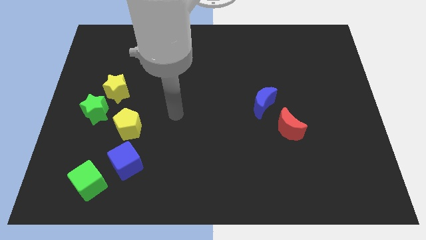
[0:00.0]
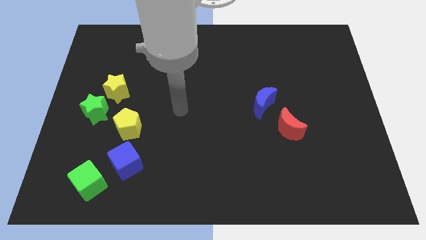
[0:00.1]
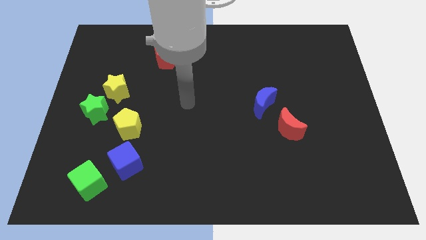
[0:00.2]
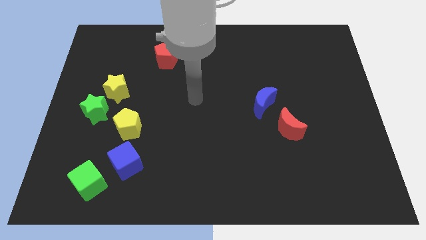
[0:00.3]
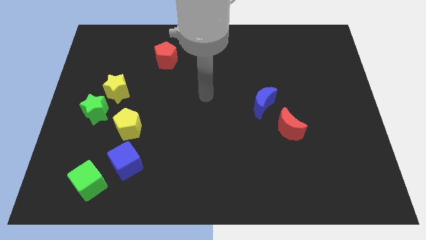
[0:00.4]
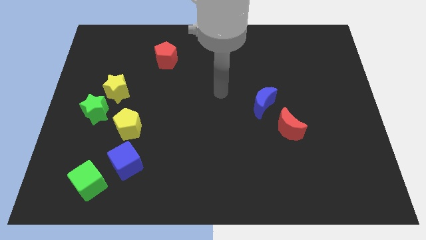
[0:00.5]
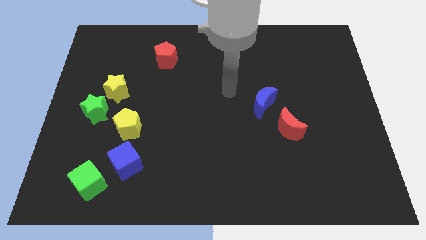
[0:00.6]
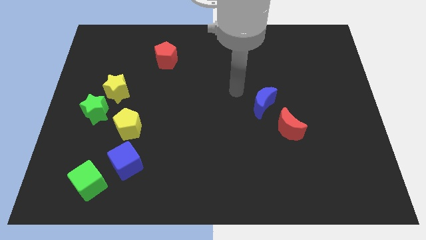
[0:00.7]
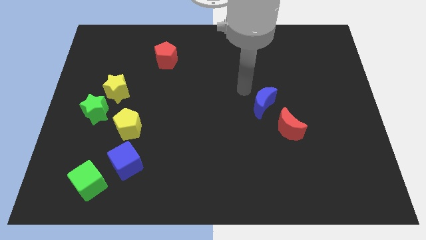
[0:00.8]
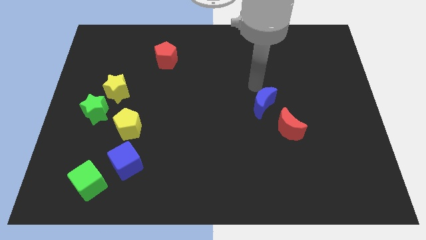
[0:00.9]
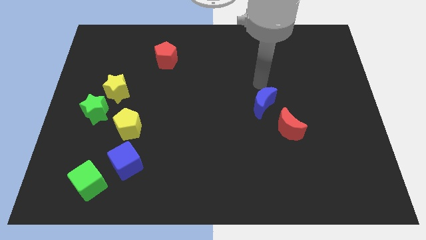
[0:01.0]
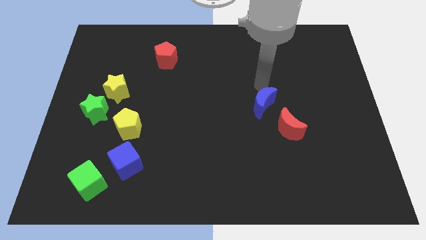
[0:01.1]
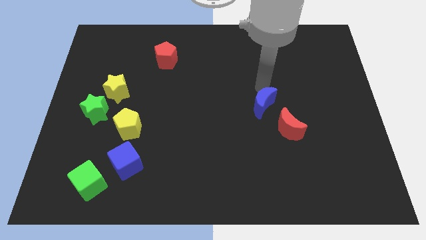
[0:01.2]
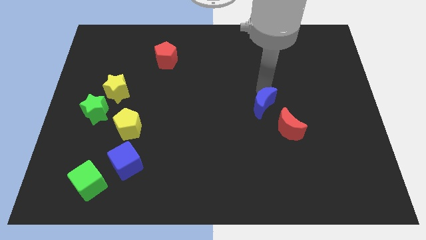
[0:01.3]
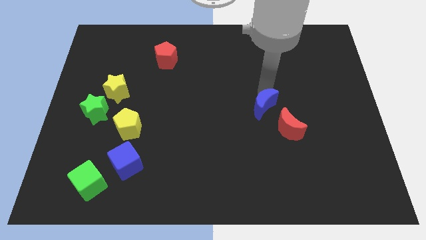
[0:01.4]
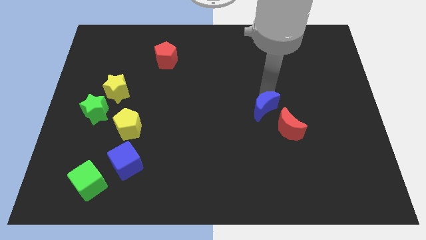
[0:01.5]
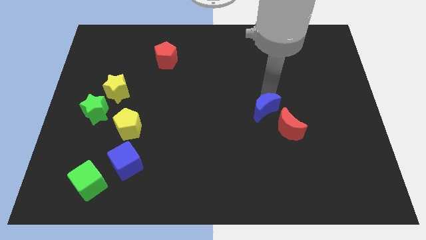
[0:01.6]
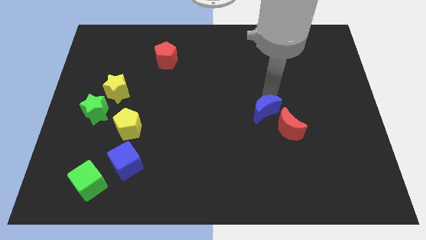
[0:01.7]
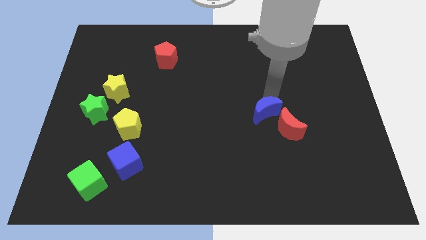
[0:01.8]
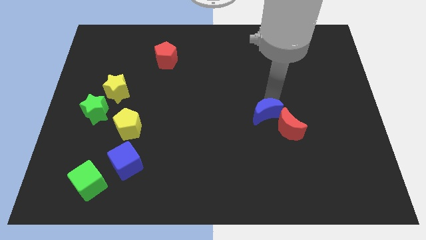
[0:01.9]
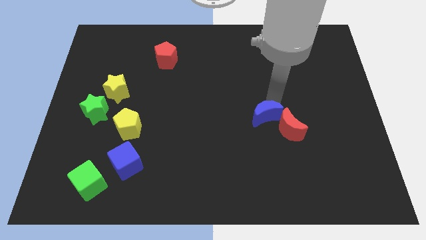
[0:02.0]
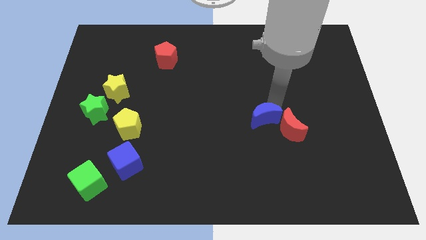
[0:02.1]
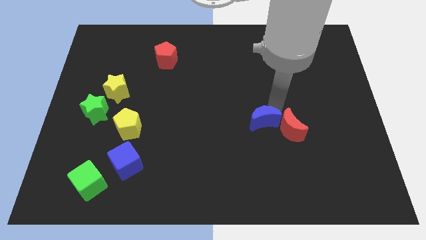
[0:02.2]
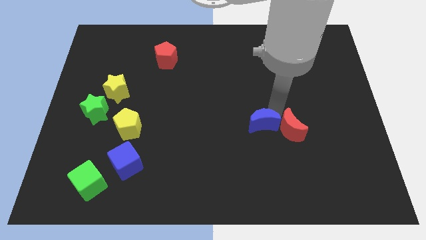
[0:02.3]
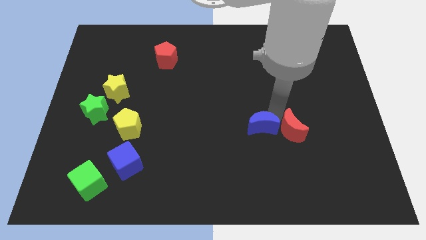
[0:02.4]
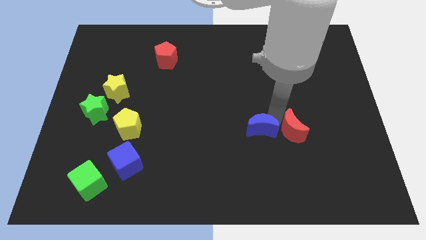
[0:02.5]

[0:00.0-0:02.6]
slightly move the blue moon down

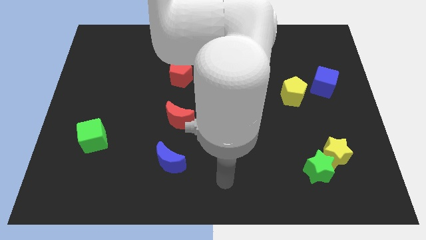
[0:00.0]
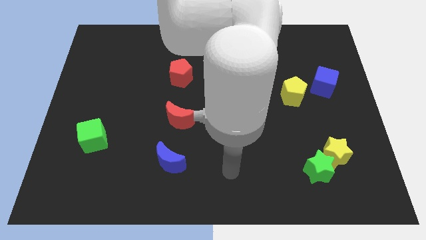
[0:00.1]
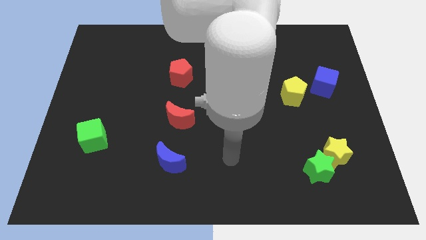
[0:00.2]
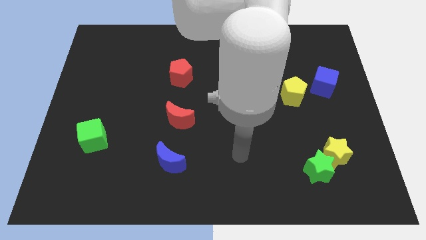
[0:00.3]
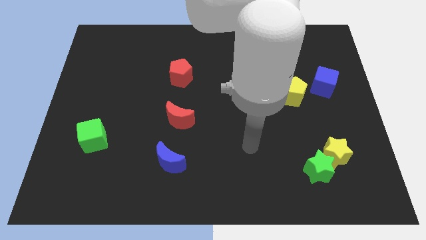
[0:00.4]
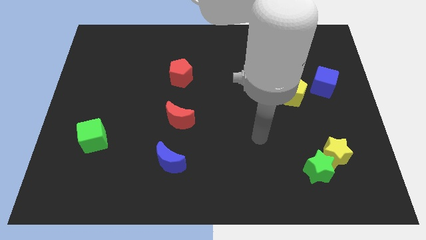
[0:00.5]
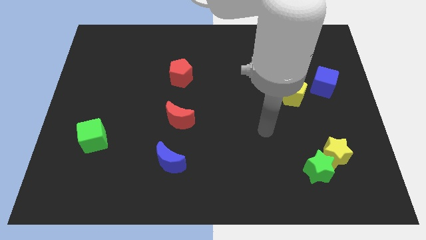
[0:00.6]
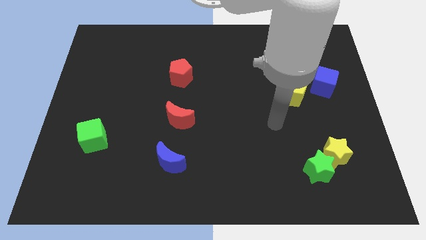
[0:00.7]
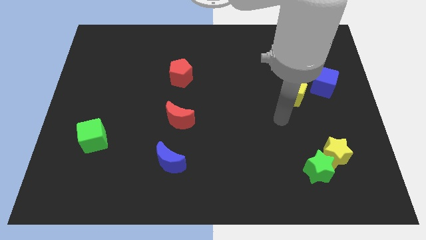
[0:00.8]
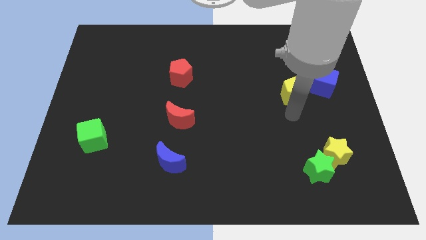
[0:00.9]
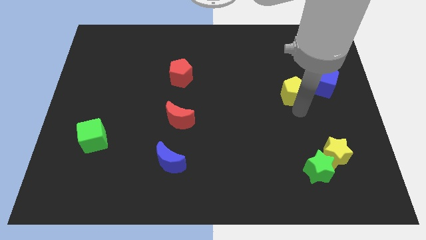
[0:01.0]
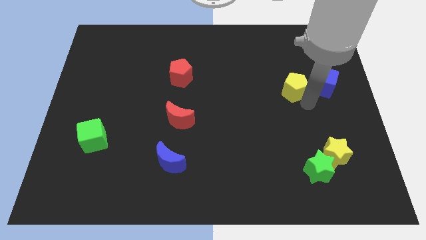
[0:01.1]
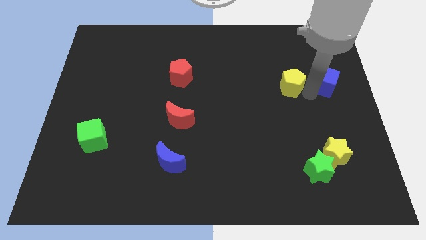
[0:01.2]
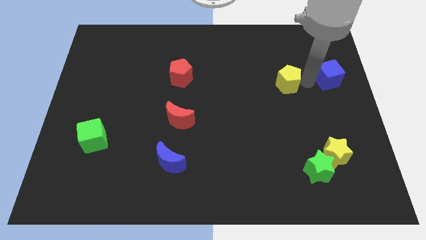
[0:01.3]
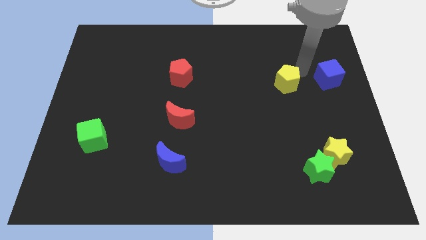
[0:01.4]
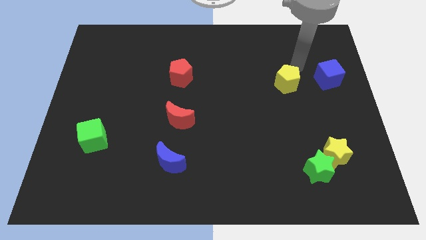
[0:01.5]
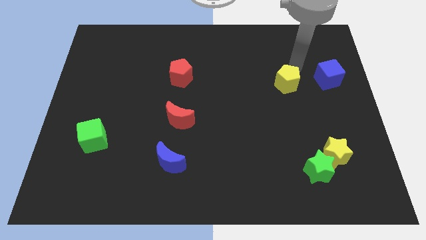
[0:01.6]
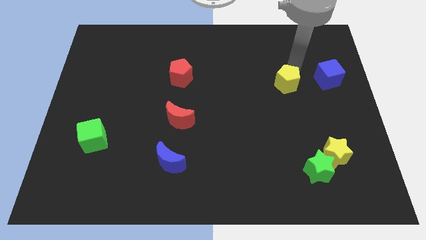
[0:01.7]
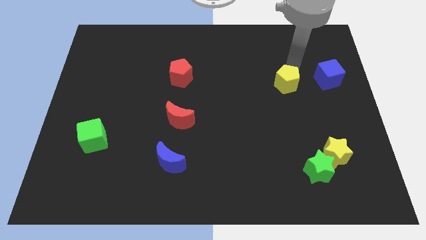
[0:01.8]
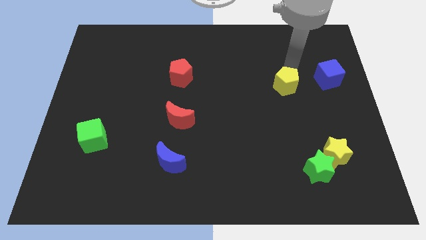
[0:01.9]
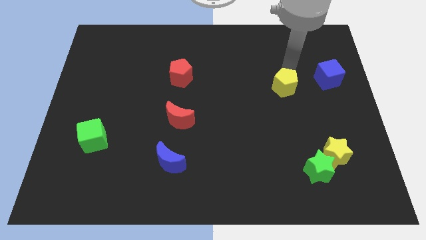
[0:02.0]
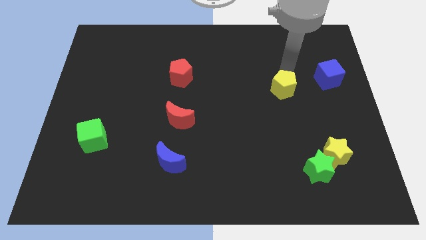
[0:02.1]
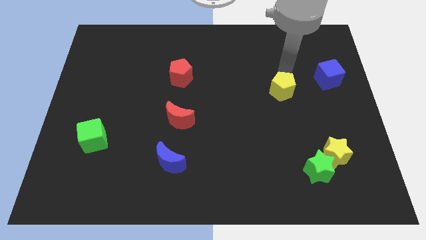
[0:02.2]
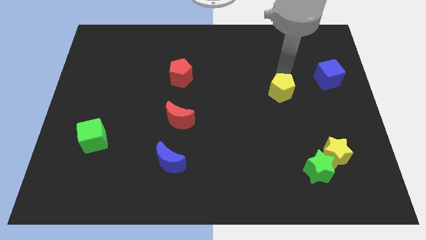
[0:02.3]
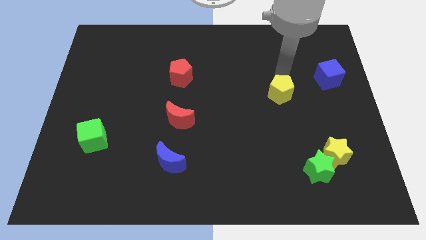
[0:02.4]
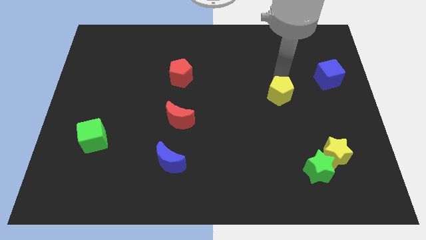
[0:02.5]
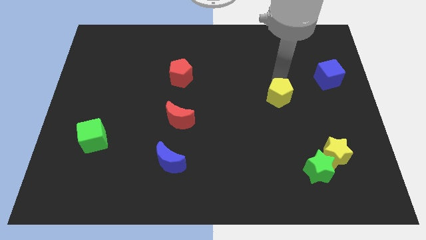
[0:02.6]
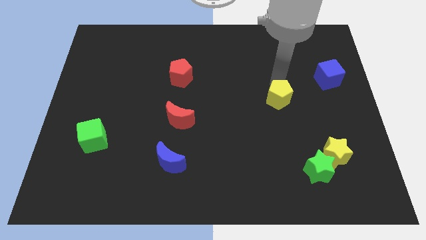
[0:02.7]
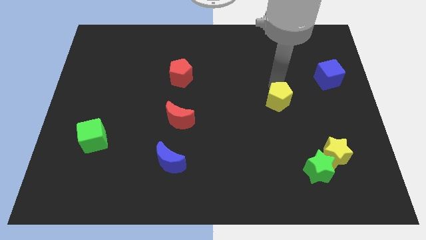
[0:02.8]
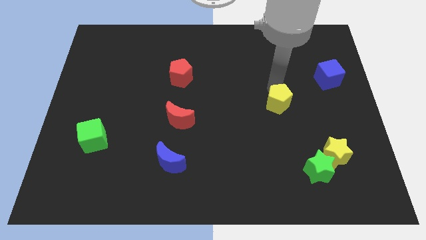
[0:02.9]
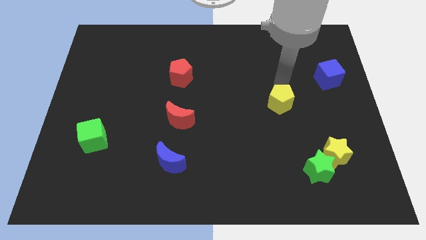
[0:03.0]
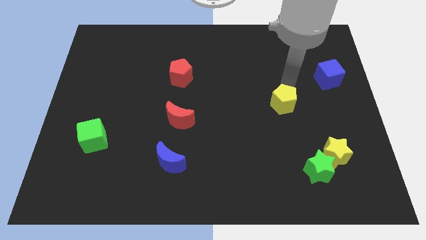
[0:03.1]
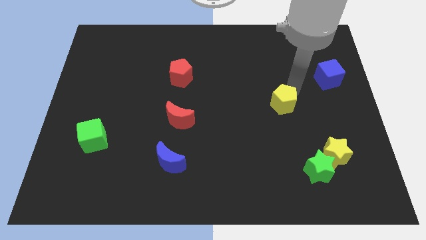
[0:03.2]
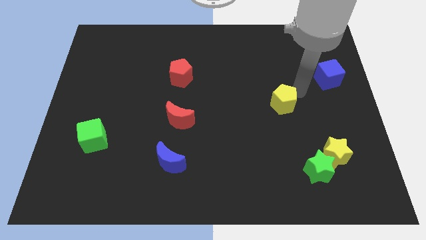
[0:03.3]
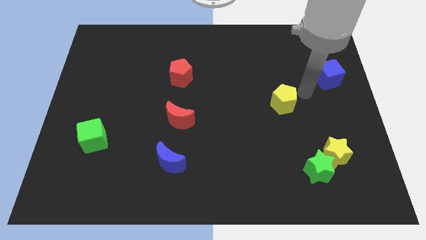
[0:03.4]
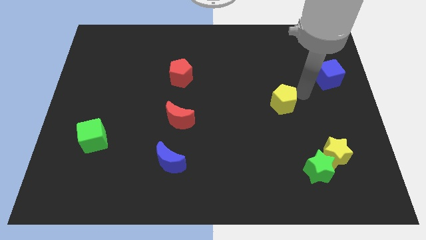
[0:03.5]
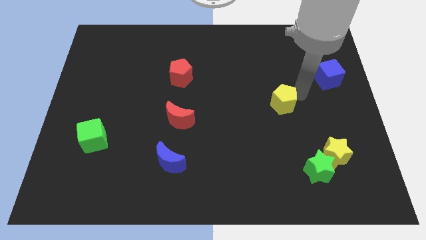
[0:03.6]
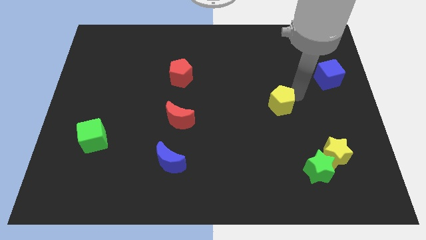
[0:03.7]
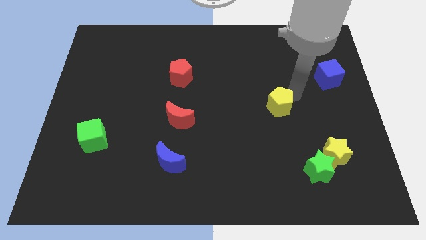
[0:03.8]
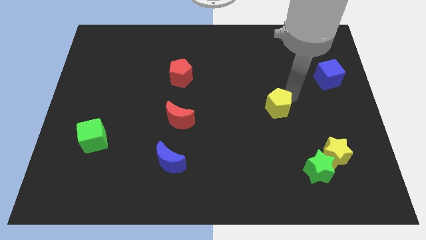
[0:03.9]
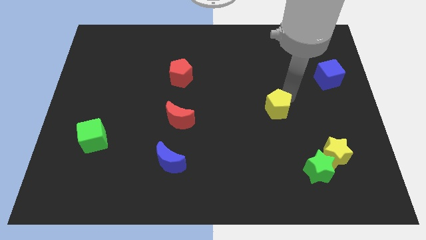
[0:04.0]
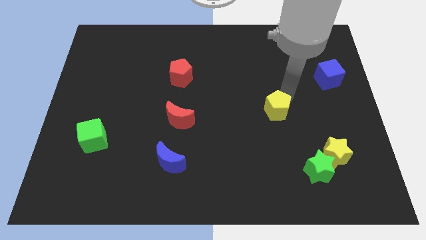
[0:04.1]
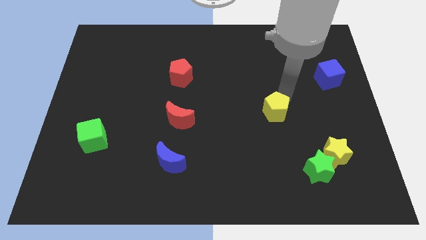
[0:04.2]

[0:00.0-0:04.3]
push the yellow pentagon downwards and then left a little

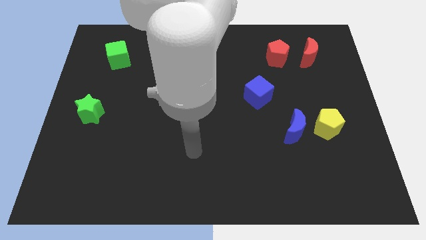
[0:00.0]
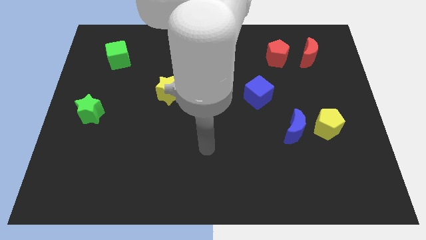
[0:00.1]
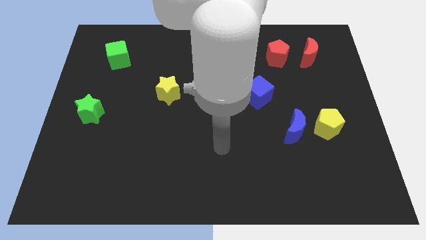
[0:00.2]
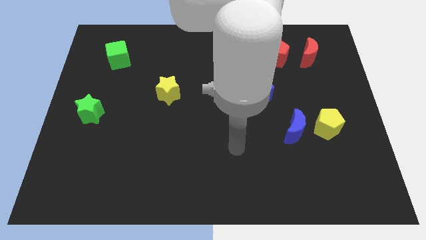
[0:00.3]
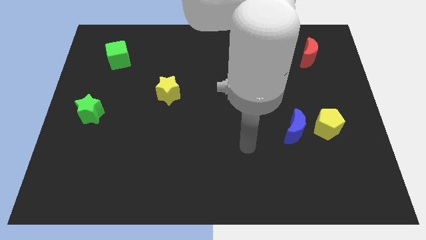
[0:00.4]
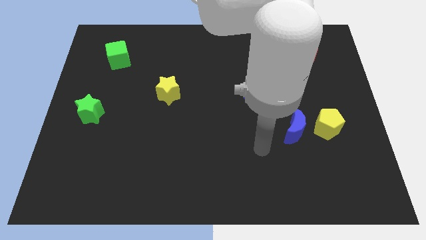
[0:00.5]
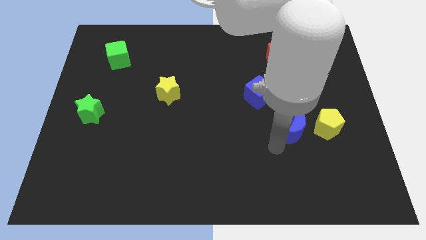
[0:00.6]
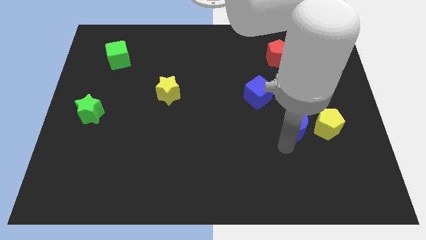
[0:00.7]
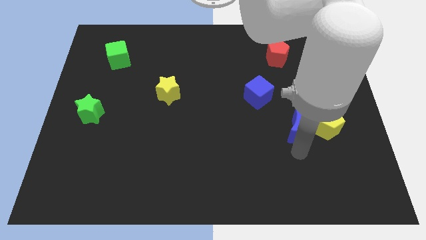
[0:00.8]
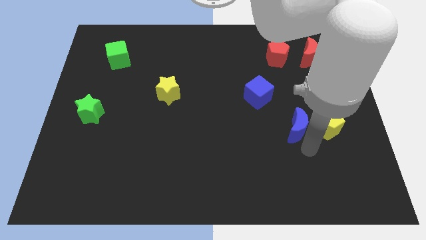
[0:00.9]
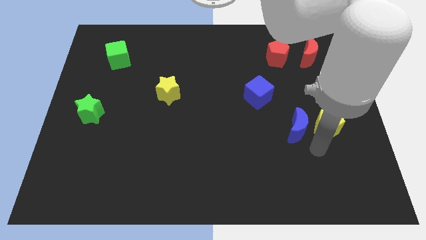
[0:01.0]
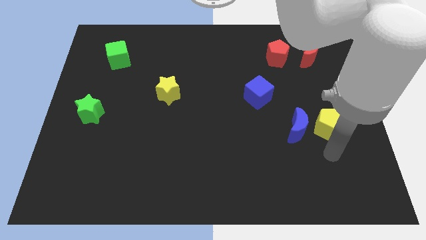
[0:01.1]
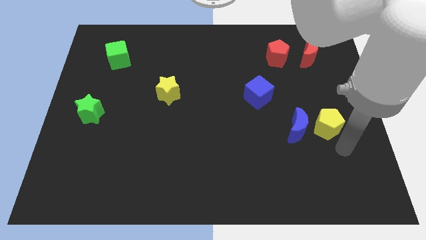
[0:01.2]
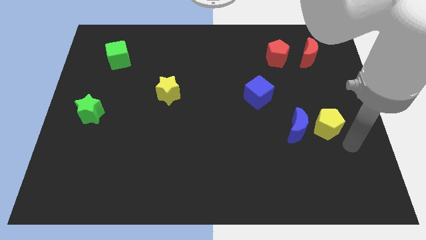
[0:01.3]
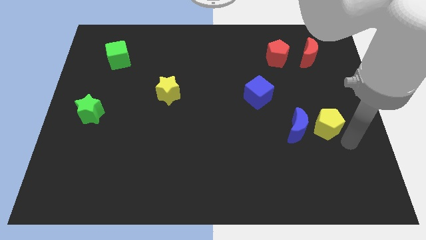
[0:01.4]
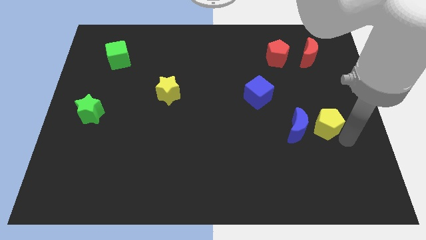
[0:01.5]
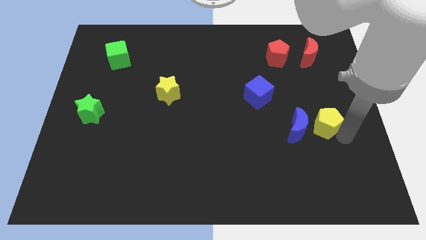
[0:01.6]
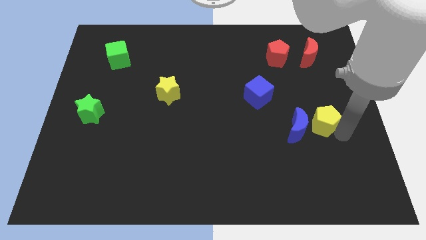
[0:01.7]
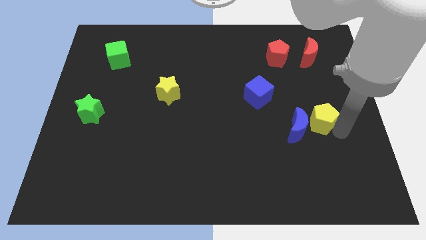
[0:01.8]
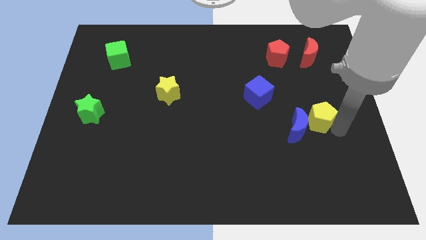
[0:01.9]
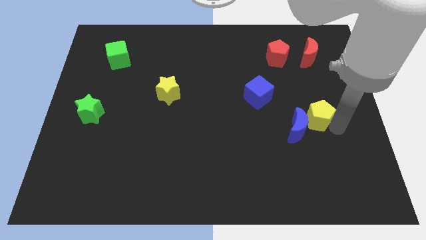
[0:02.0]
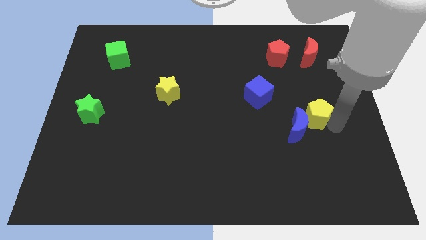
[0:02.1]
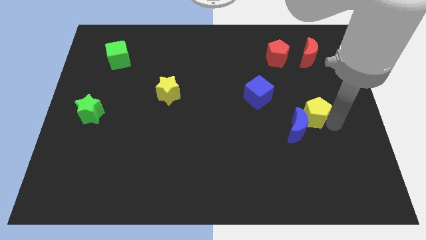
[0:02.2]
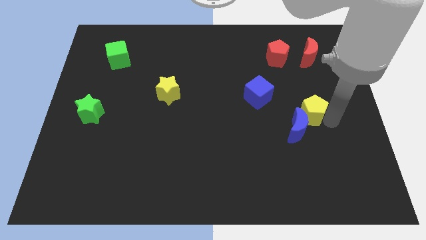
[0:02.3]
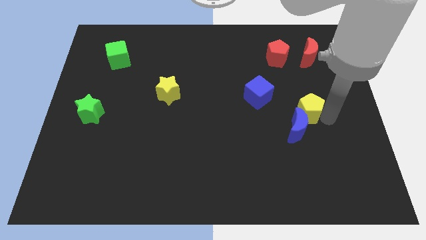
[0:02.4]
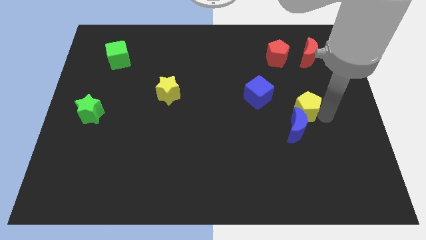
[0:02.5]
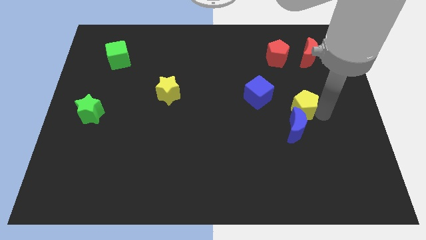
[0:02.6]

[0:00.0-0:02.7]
slightly push the yellow pentagon diagonally up and to the left
